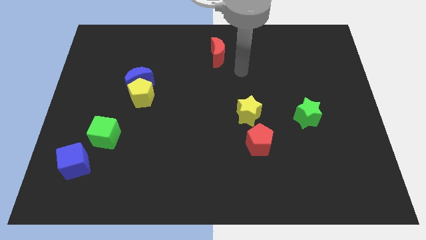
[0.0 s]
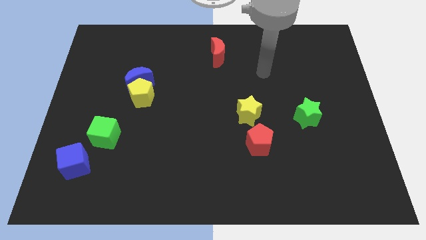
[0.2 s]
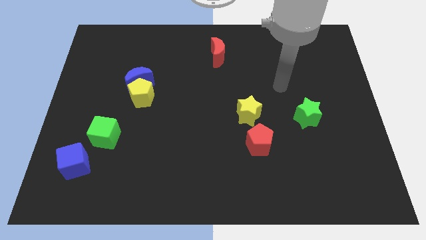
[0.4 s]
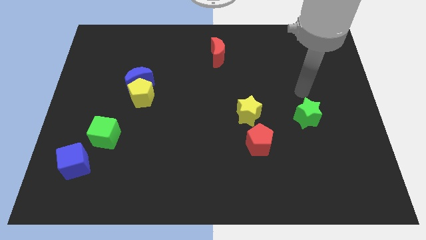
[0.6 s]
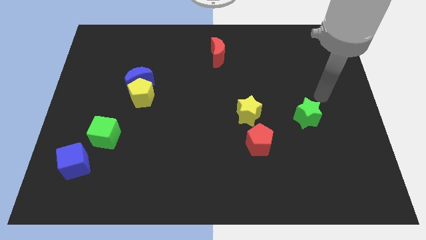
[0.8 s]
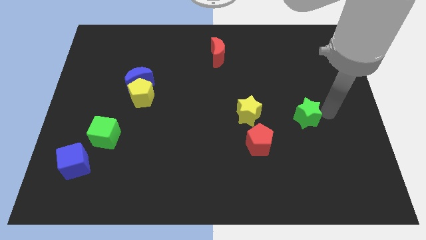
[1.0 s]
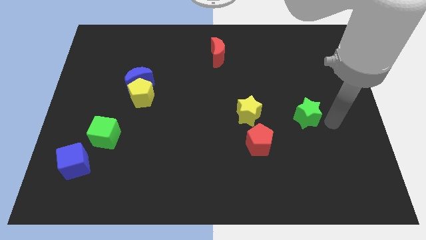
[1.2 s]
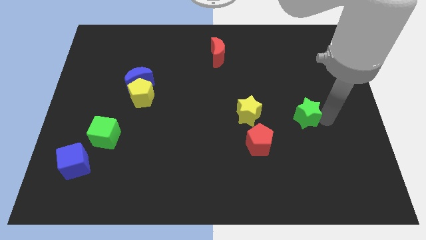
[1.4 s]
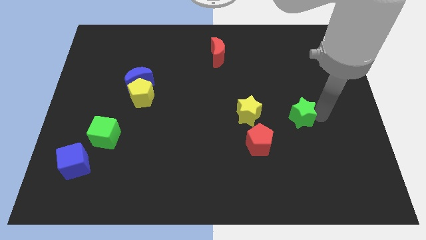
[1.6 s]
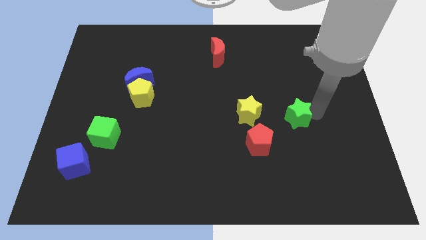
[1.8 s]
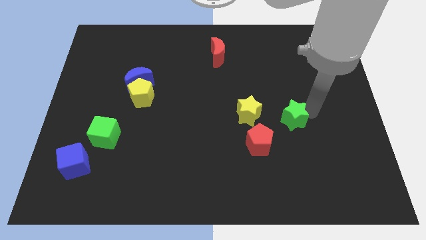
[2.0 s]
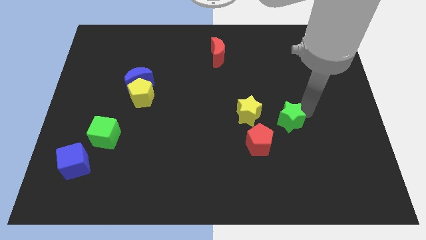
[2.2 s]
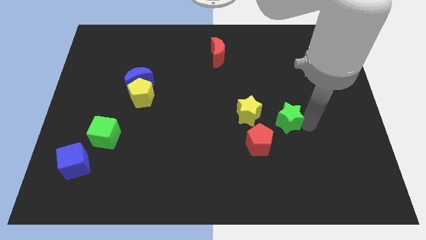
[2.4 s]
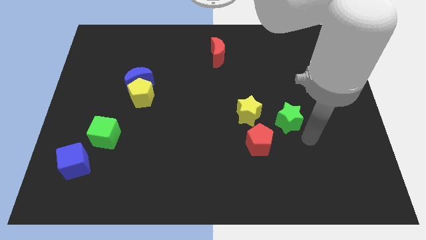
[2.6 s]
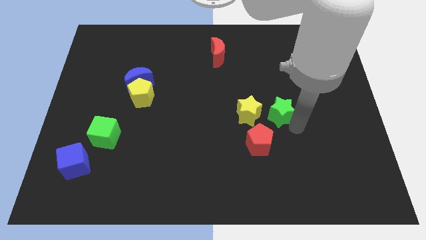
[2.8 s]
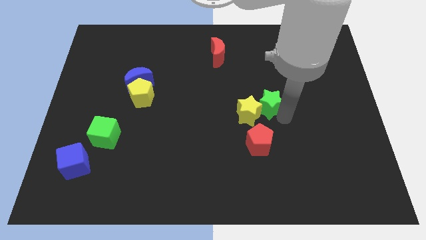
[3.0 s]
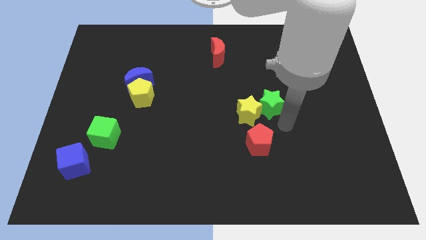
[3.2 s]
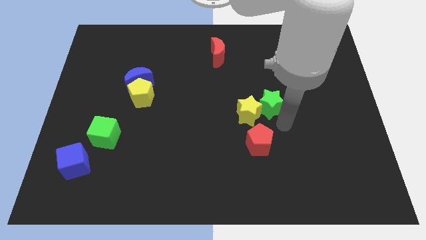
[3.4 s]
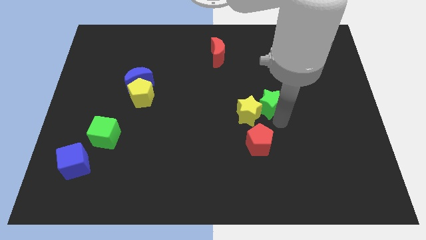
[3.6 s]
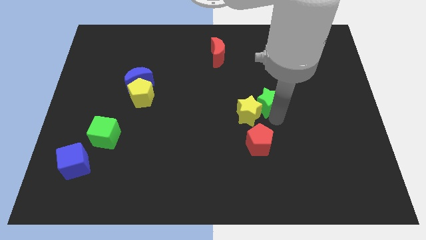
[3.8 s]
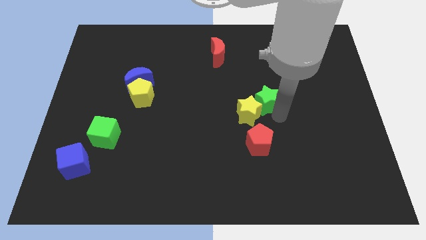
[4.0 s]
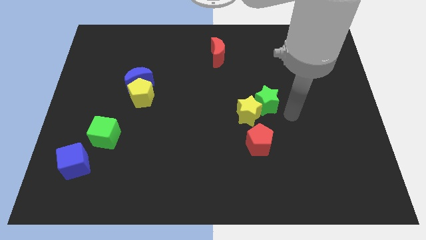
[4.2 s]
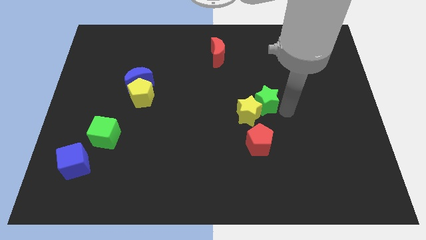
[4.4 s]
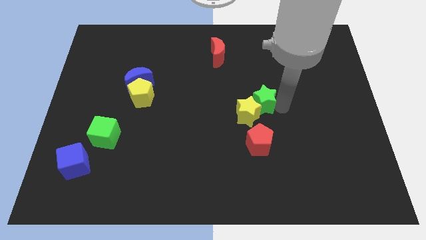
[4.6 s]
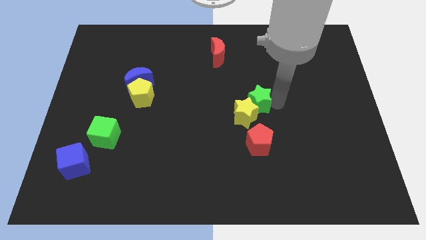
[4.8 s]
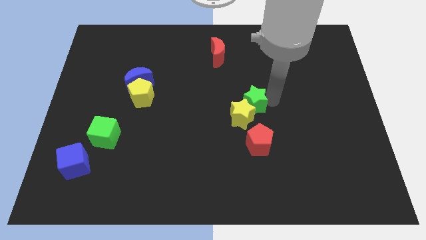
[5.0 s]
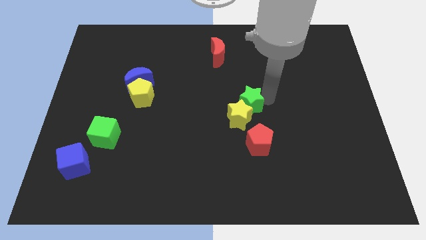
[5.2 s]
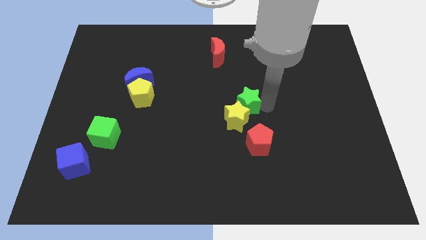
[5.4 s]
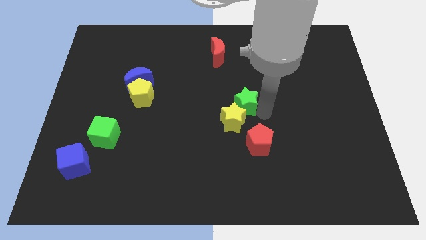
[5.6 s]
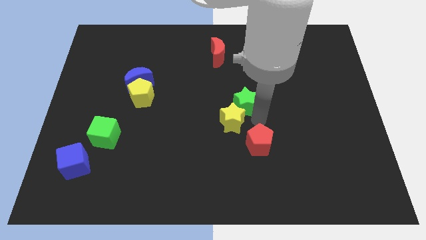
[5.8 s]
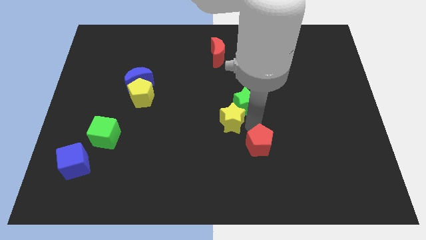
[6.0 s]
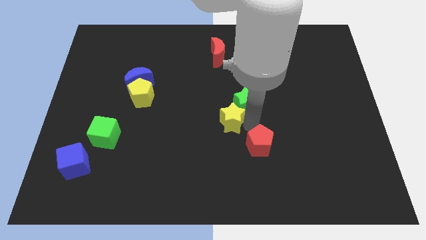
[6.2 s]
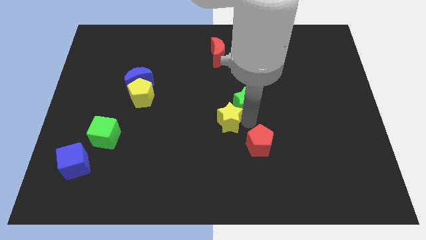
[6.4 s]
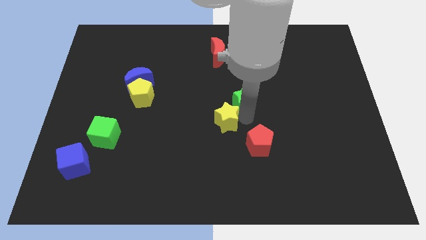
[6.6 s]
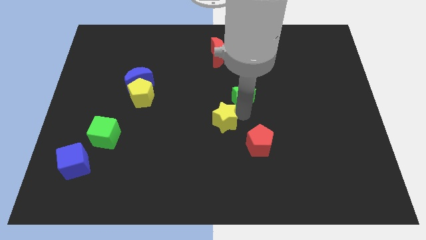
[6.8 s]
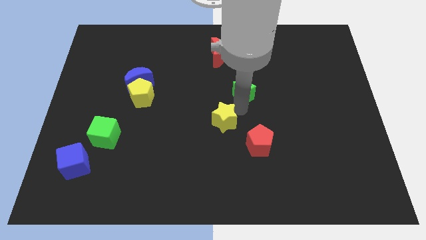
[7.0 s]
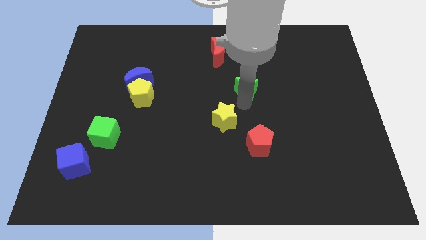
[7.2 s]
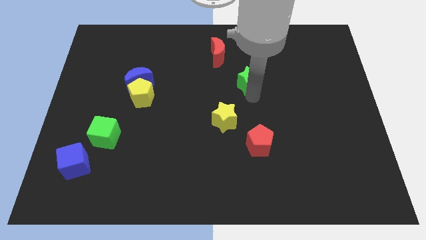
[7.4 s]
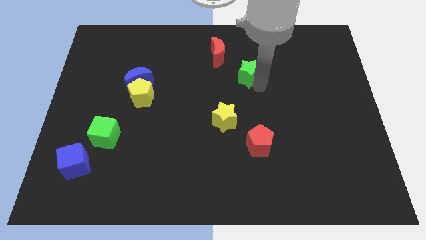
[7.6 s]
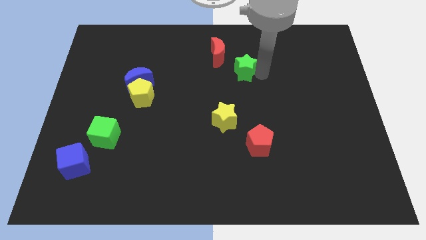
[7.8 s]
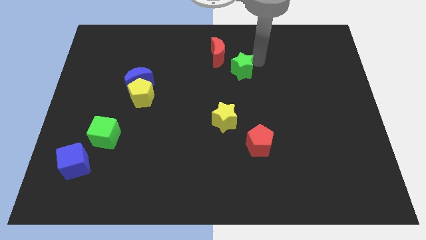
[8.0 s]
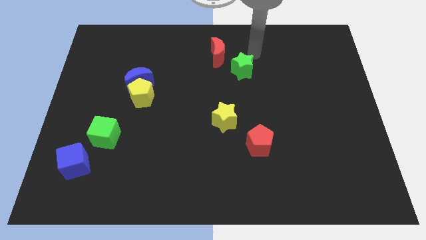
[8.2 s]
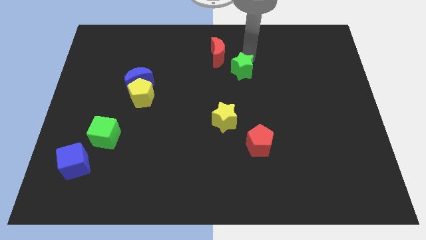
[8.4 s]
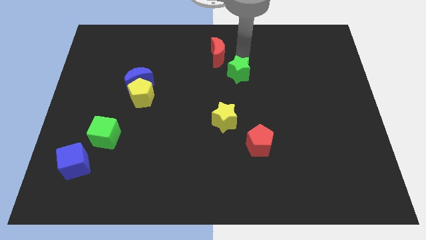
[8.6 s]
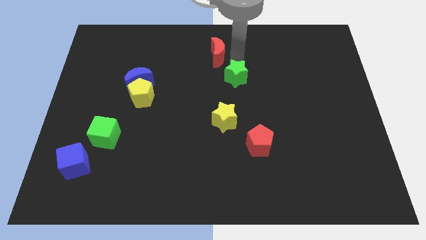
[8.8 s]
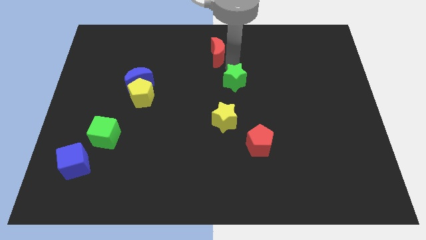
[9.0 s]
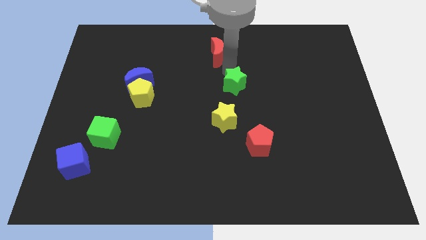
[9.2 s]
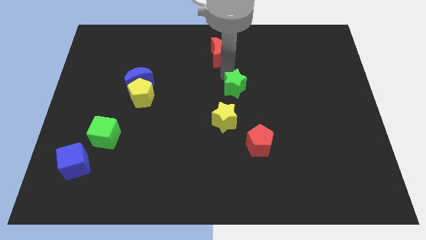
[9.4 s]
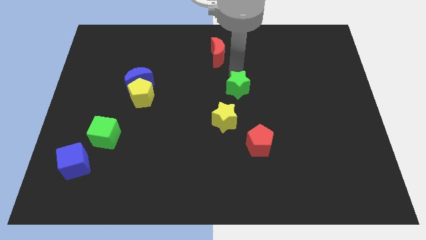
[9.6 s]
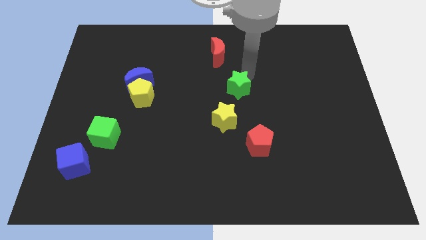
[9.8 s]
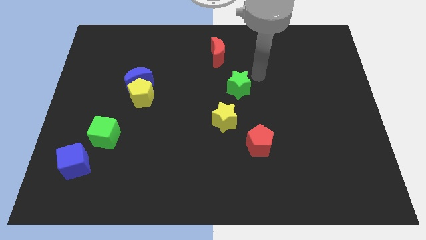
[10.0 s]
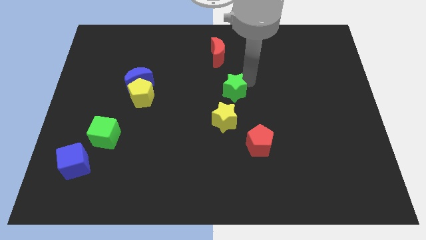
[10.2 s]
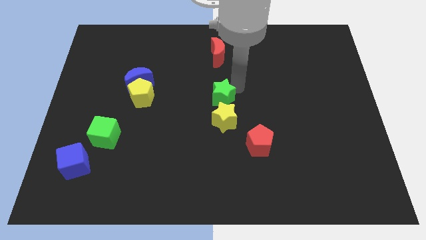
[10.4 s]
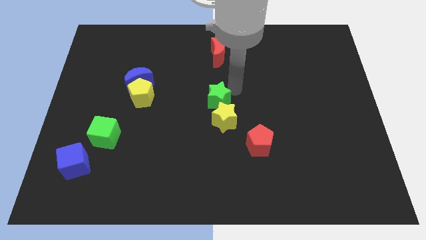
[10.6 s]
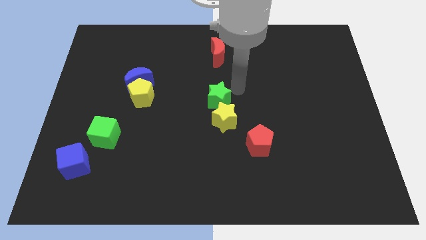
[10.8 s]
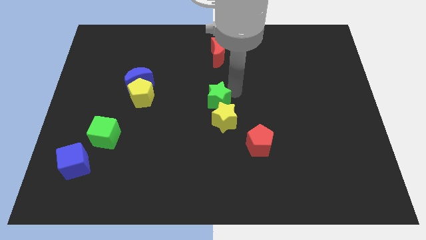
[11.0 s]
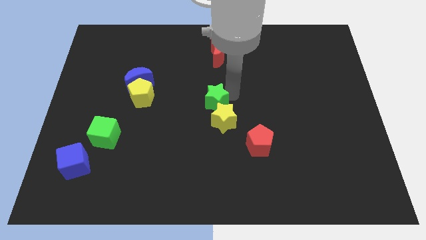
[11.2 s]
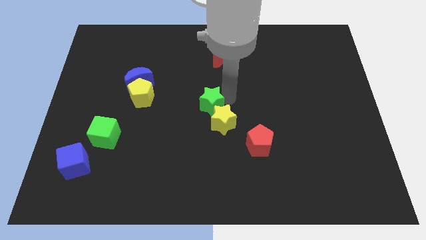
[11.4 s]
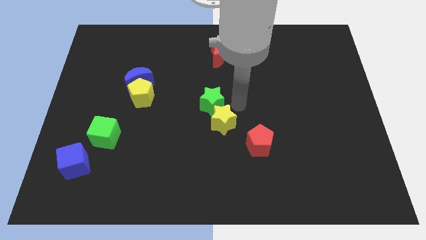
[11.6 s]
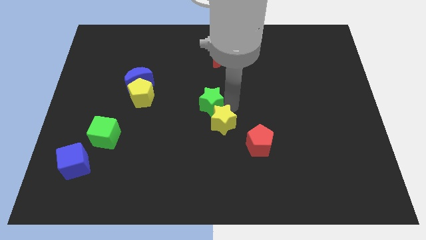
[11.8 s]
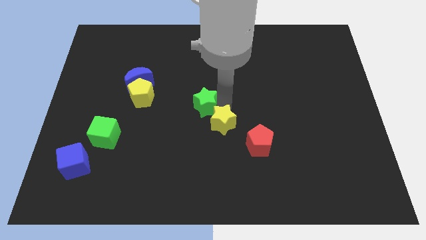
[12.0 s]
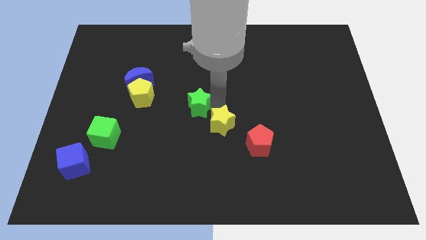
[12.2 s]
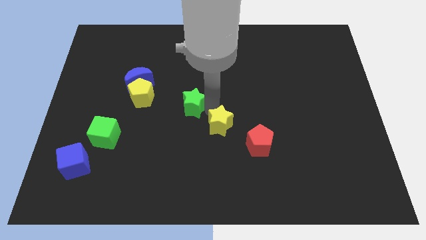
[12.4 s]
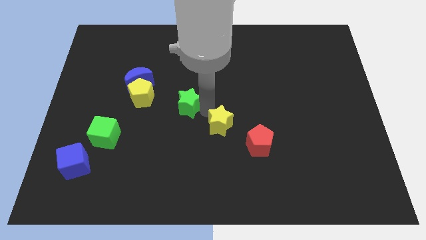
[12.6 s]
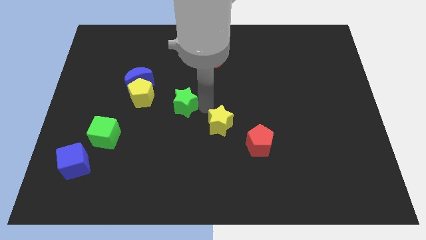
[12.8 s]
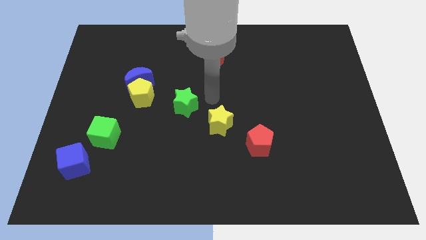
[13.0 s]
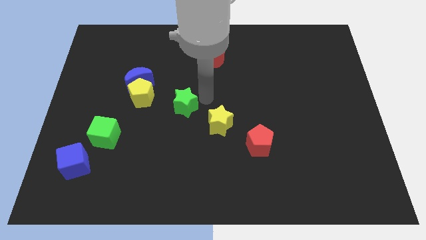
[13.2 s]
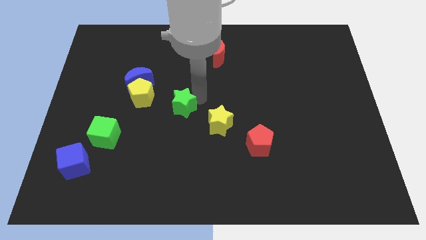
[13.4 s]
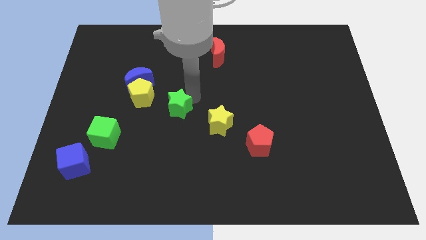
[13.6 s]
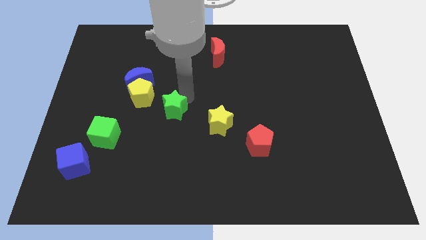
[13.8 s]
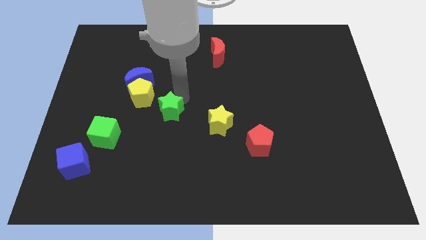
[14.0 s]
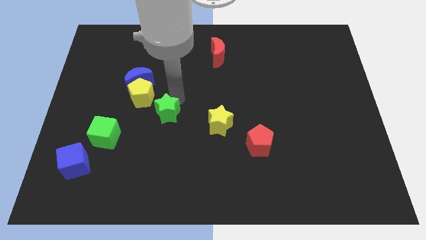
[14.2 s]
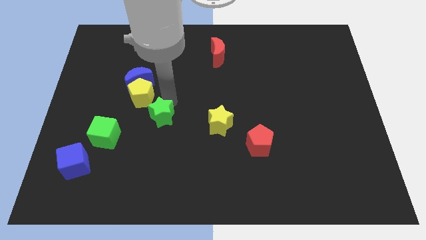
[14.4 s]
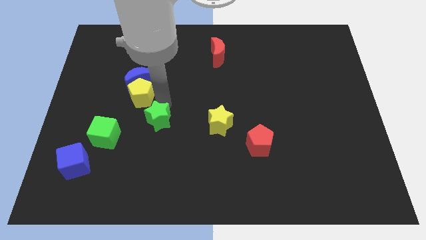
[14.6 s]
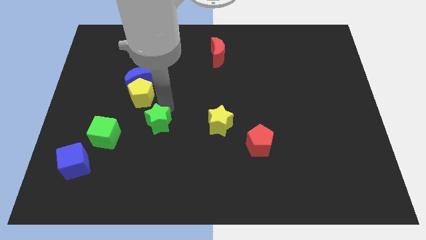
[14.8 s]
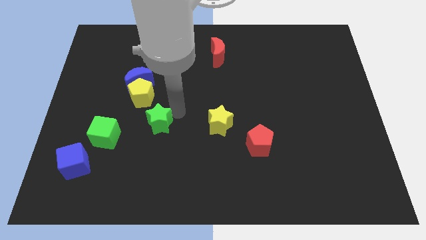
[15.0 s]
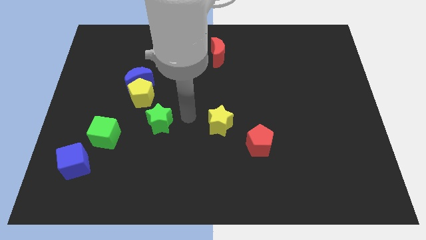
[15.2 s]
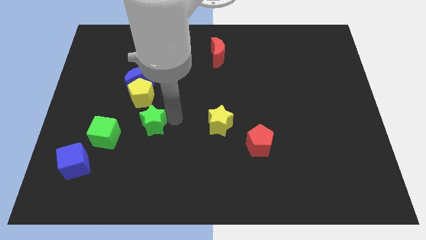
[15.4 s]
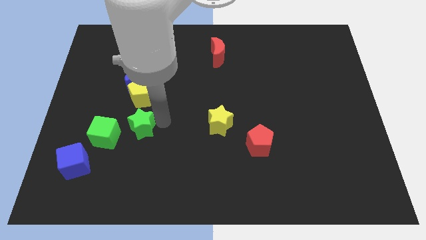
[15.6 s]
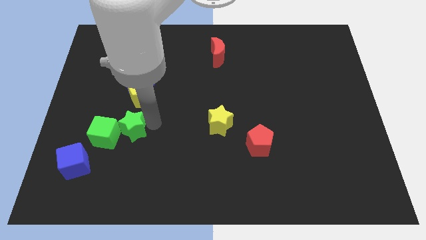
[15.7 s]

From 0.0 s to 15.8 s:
move the green star next to the green cube

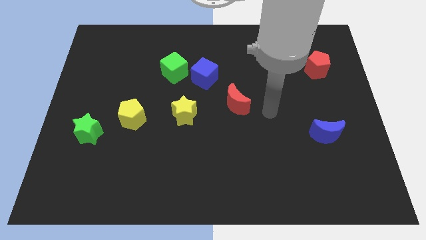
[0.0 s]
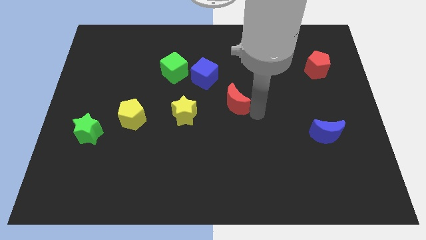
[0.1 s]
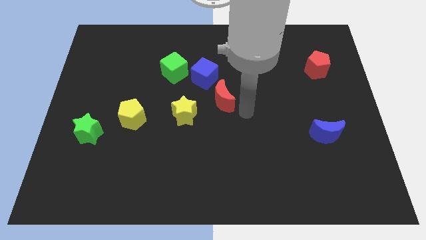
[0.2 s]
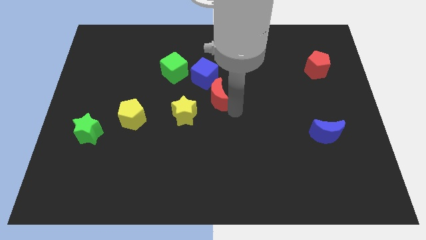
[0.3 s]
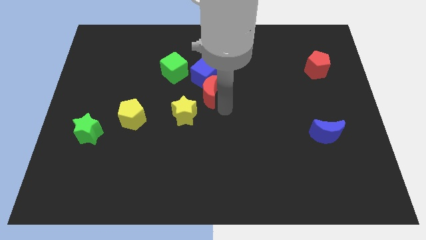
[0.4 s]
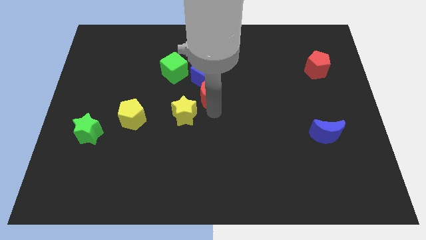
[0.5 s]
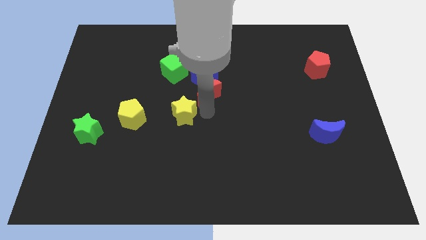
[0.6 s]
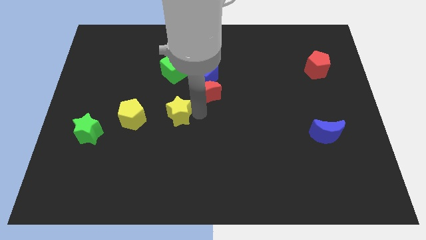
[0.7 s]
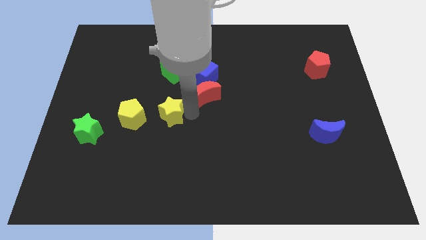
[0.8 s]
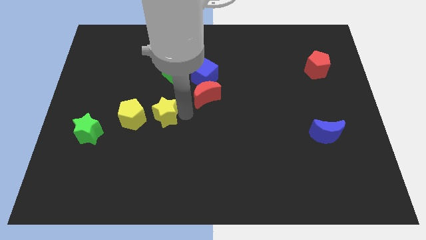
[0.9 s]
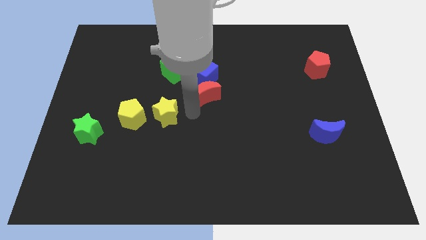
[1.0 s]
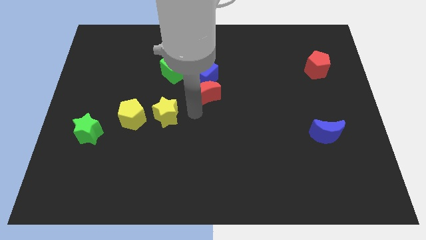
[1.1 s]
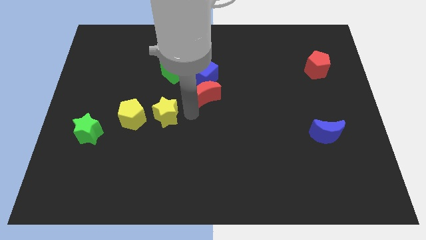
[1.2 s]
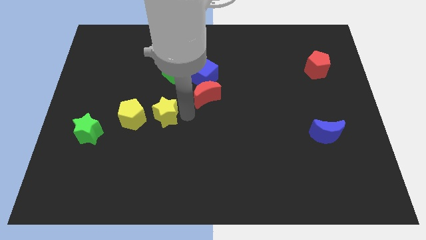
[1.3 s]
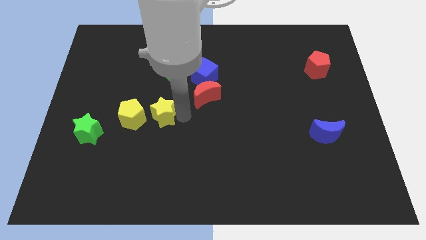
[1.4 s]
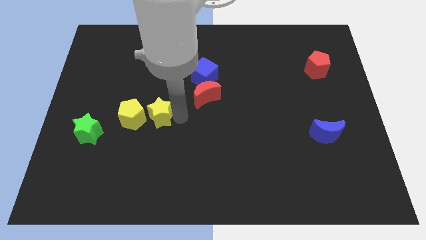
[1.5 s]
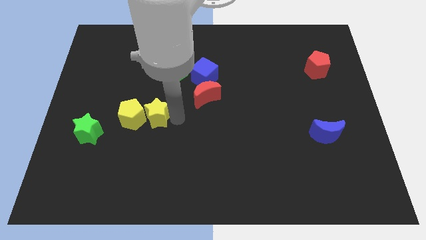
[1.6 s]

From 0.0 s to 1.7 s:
slide the yellow star next to the yellow pentagon
